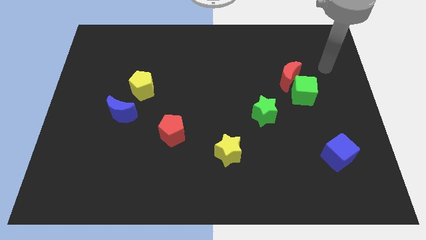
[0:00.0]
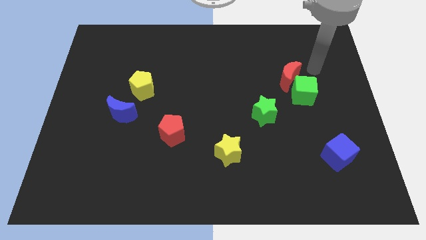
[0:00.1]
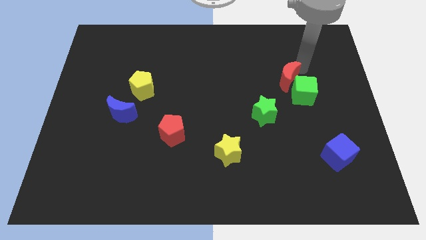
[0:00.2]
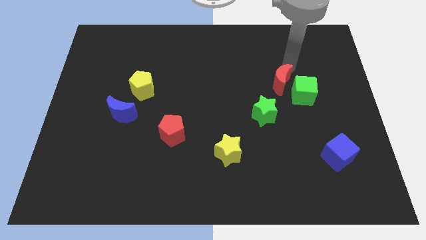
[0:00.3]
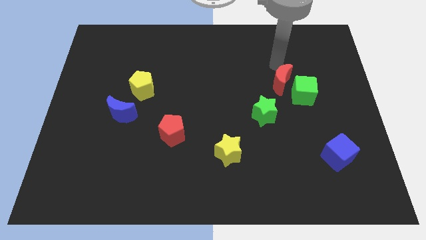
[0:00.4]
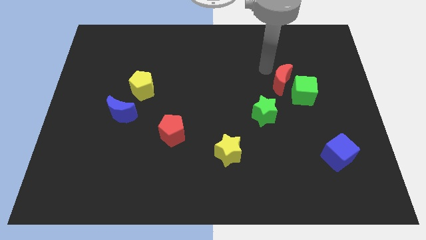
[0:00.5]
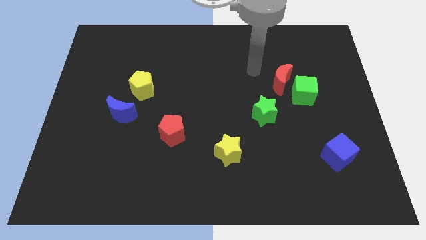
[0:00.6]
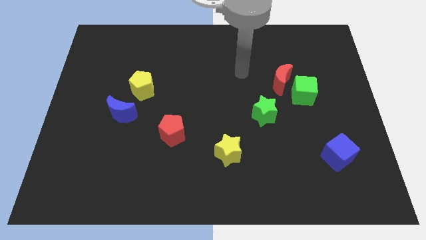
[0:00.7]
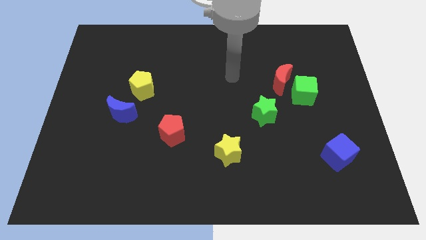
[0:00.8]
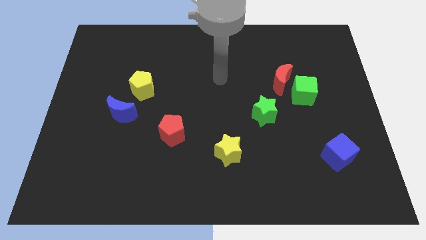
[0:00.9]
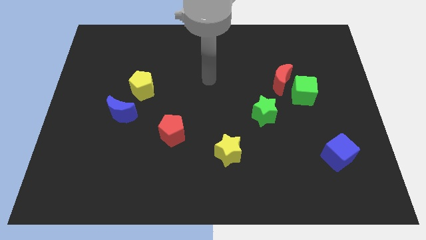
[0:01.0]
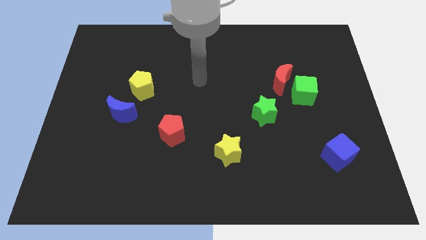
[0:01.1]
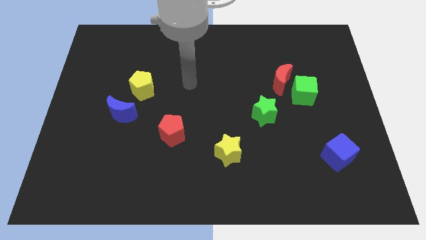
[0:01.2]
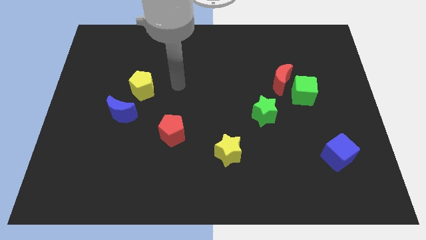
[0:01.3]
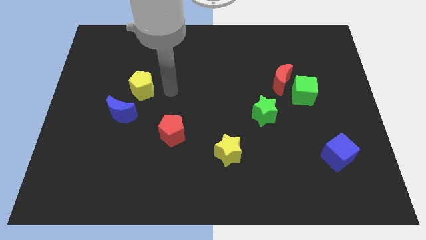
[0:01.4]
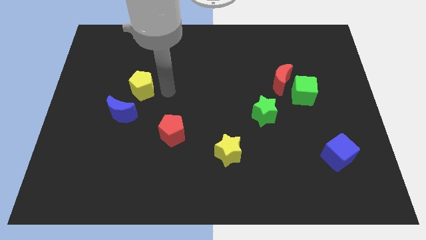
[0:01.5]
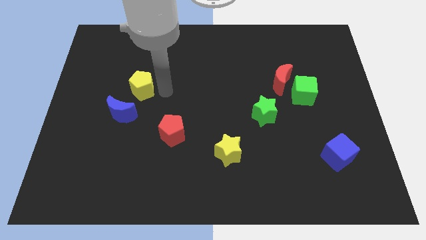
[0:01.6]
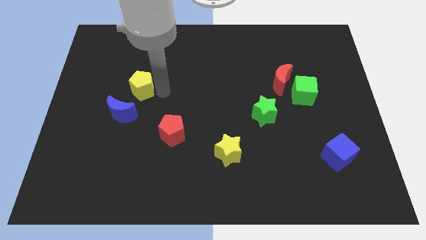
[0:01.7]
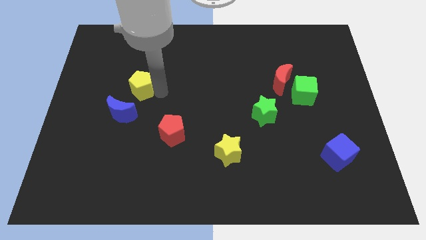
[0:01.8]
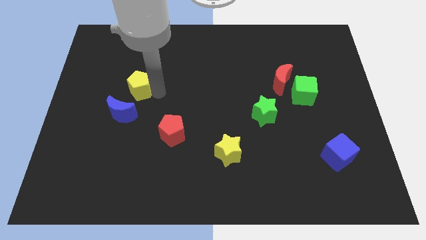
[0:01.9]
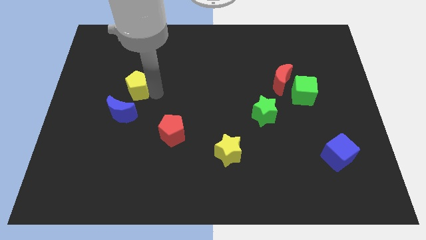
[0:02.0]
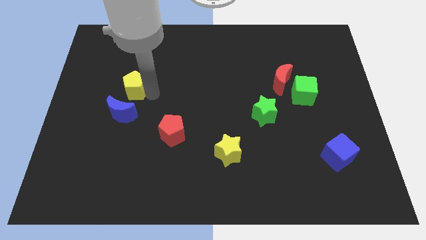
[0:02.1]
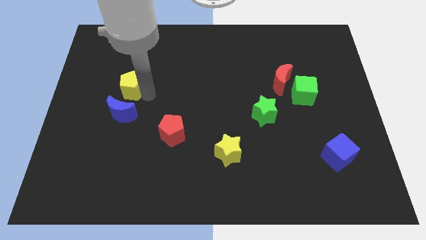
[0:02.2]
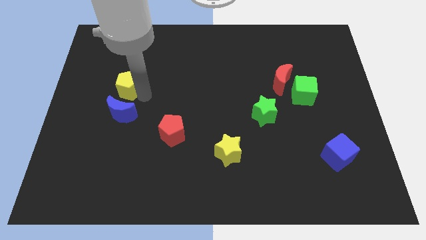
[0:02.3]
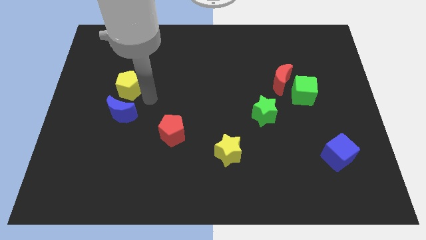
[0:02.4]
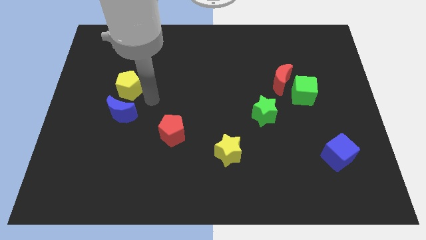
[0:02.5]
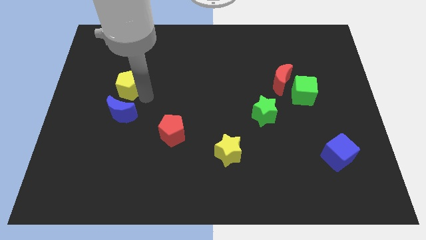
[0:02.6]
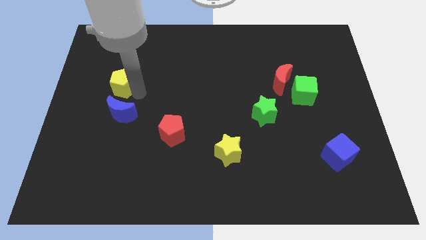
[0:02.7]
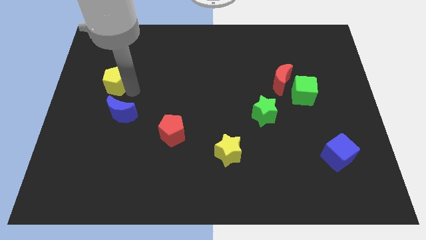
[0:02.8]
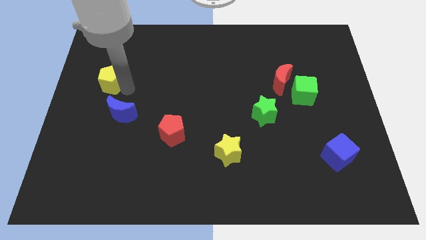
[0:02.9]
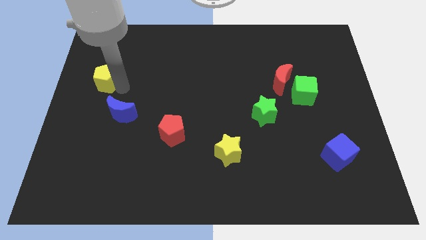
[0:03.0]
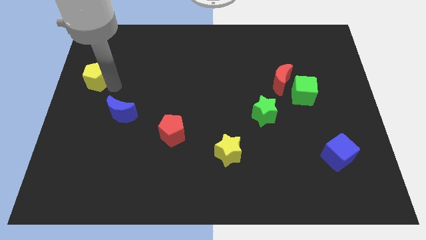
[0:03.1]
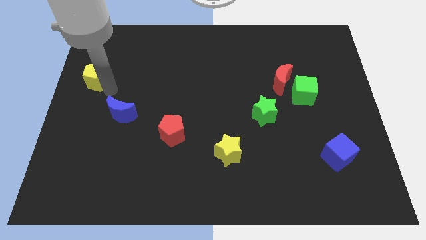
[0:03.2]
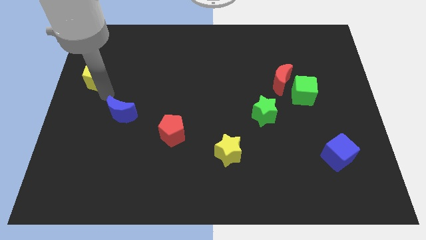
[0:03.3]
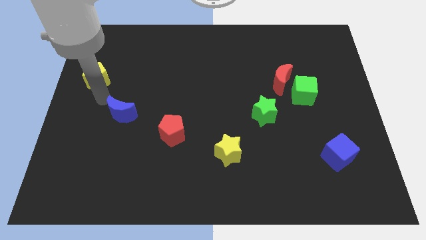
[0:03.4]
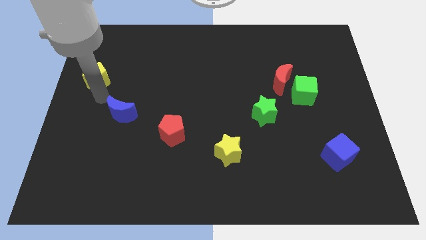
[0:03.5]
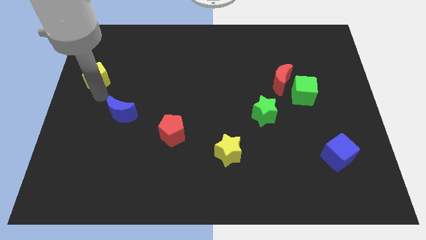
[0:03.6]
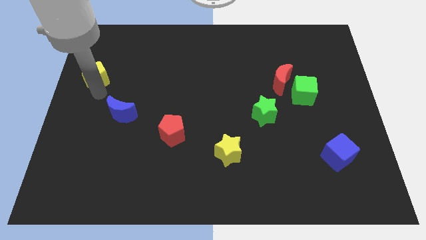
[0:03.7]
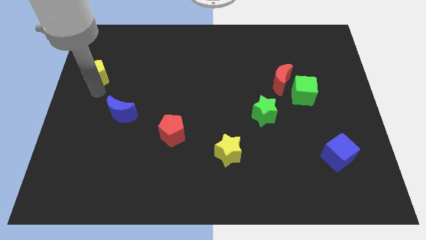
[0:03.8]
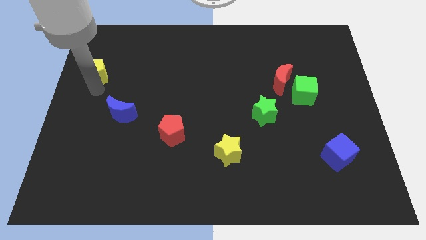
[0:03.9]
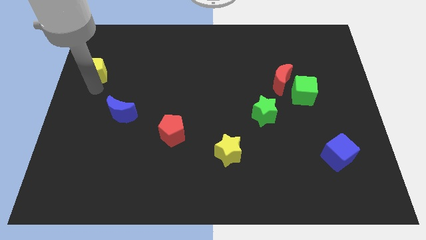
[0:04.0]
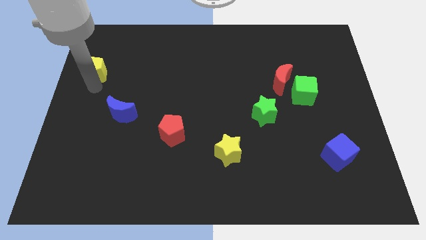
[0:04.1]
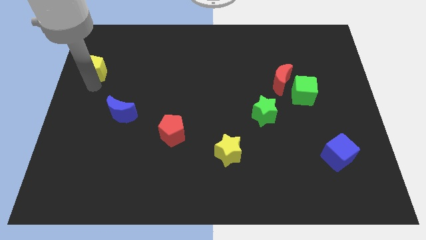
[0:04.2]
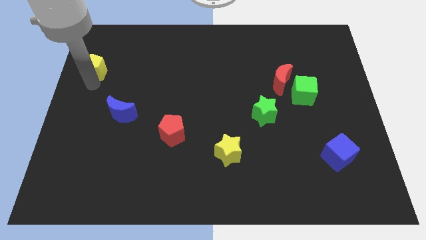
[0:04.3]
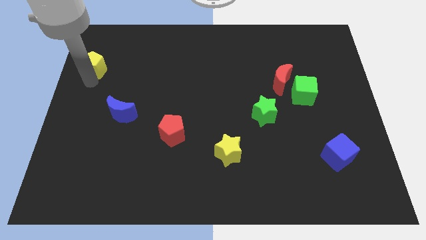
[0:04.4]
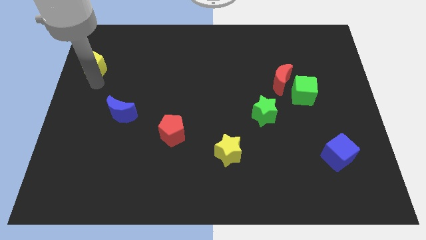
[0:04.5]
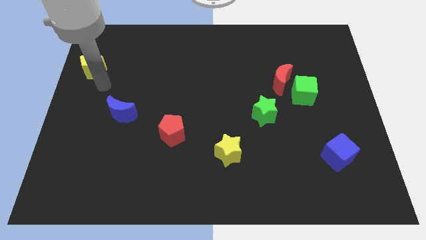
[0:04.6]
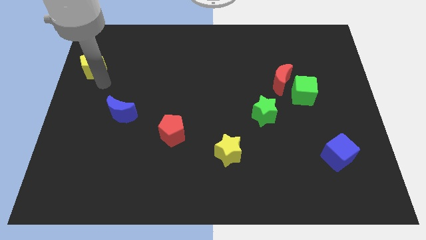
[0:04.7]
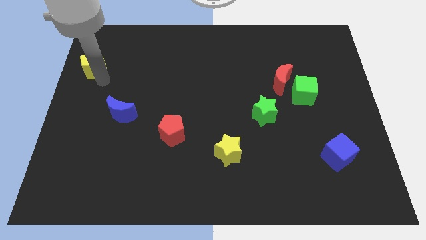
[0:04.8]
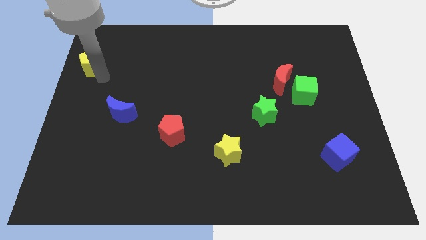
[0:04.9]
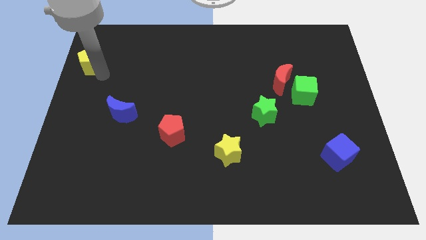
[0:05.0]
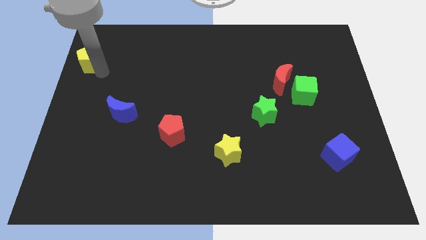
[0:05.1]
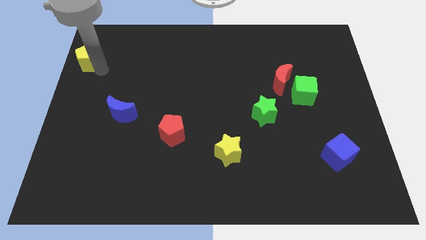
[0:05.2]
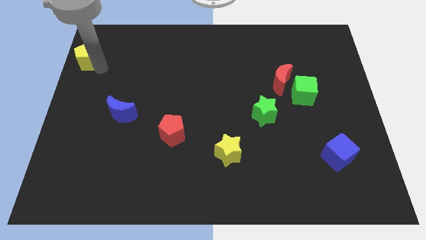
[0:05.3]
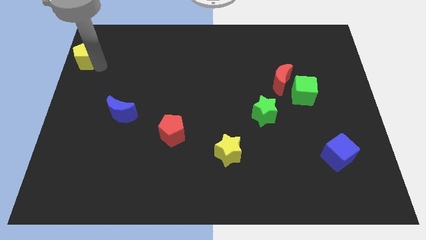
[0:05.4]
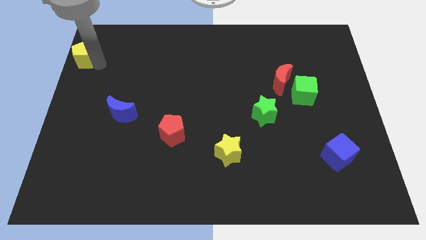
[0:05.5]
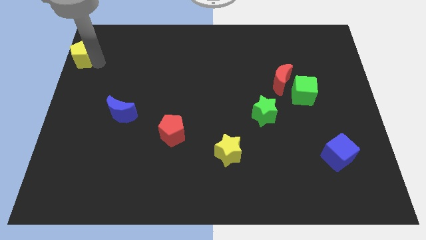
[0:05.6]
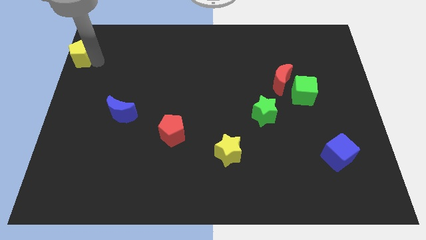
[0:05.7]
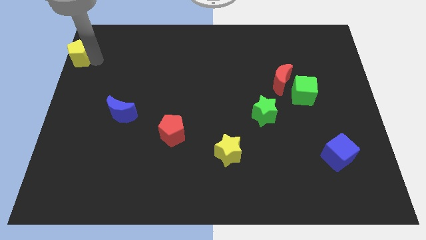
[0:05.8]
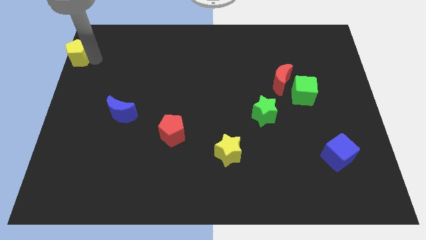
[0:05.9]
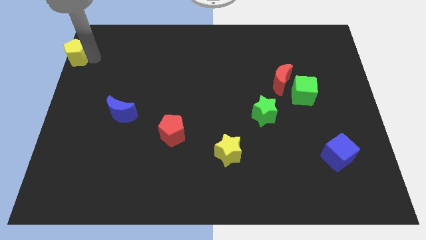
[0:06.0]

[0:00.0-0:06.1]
move the yellow pentagon to the upper left corner
